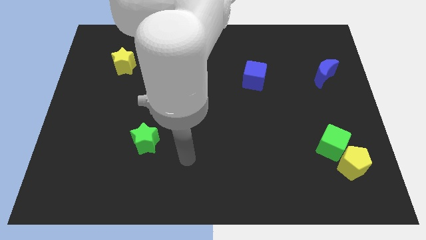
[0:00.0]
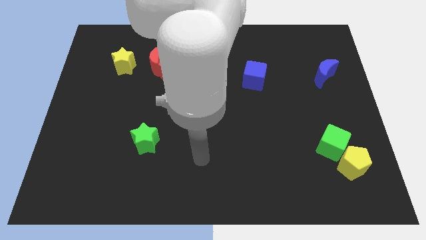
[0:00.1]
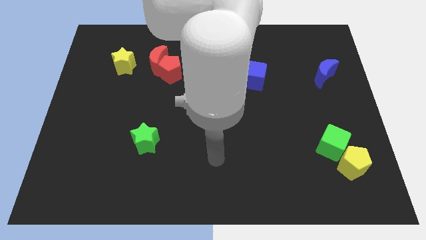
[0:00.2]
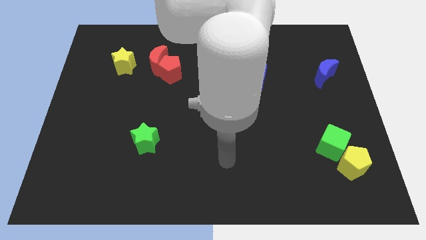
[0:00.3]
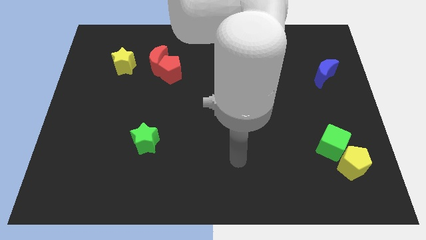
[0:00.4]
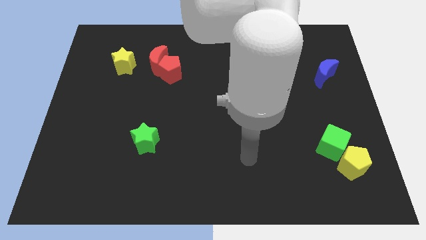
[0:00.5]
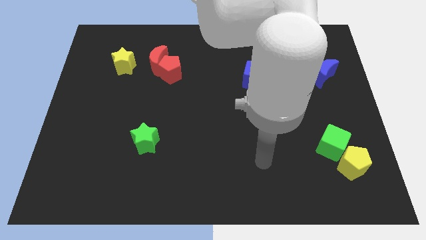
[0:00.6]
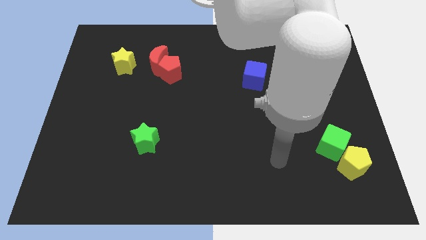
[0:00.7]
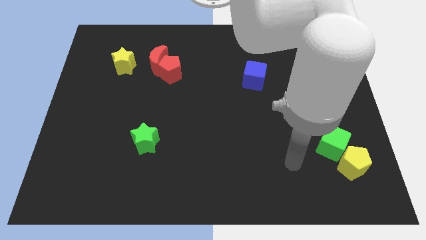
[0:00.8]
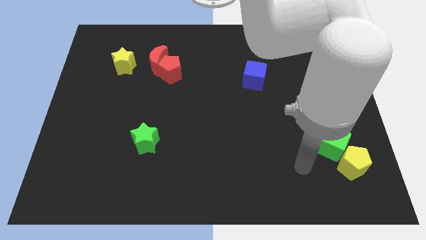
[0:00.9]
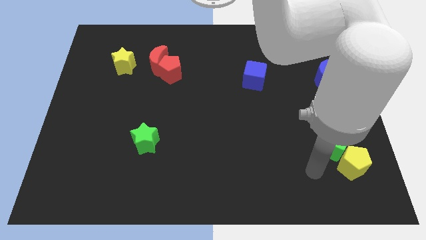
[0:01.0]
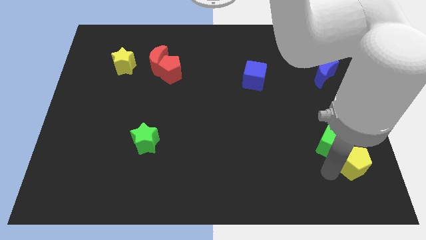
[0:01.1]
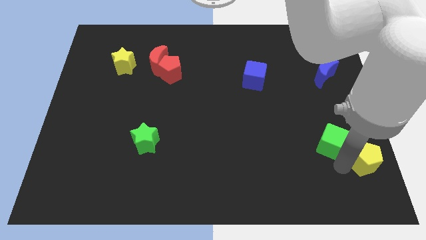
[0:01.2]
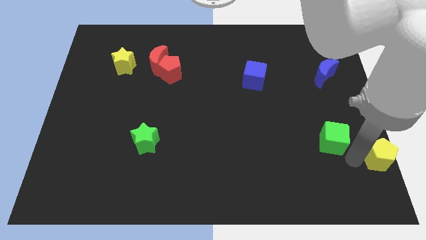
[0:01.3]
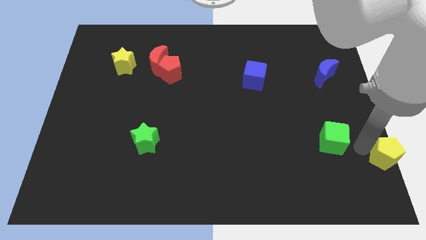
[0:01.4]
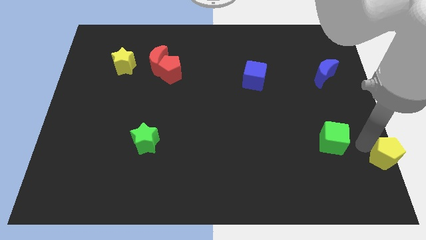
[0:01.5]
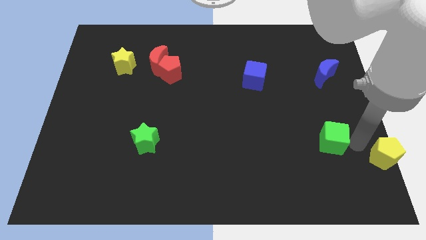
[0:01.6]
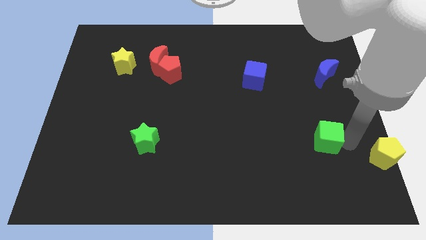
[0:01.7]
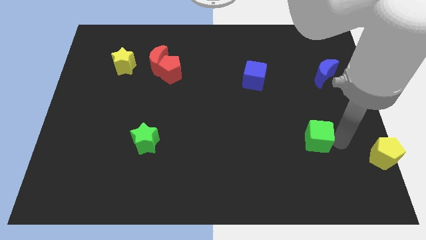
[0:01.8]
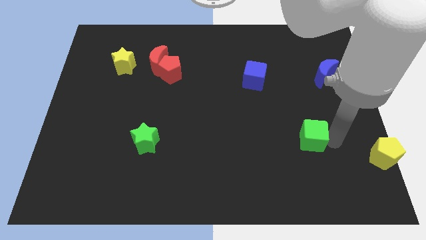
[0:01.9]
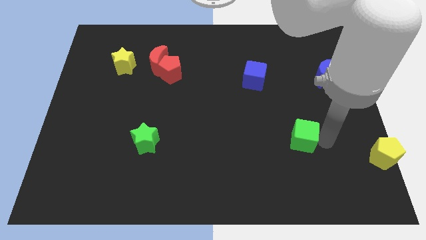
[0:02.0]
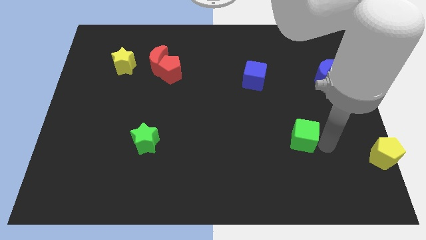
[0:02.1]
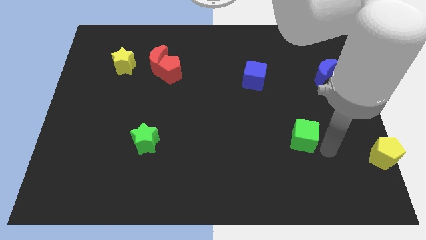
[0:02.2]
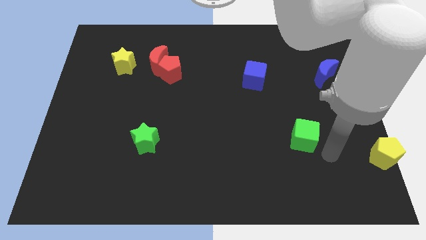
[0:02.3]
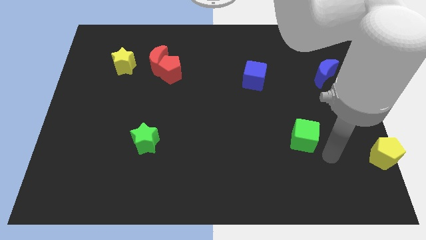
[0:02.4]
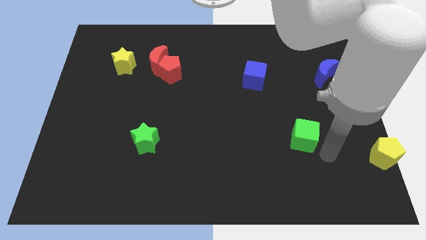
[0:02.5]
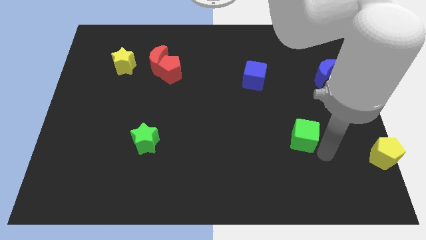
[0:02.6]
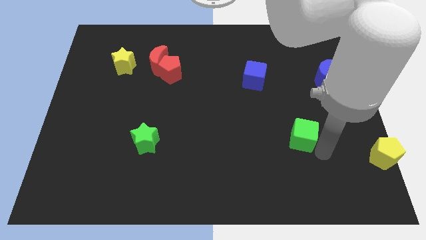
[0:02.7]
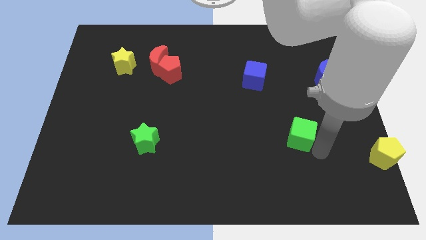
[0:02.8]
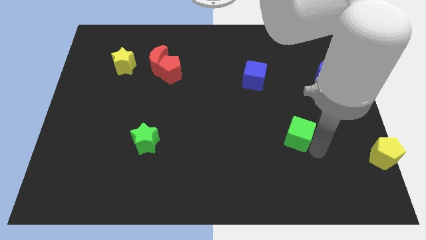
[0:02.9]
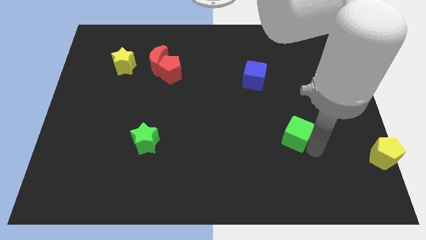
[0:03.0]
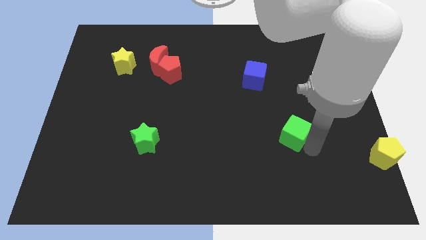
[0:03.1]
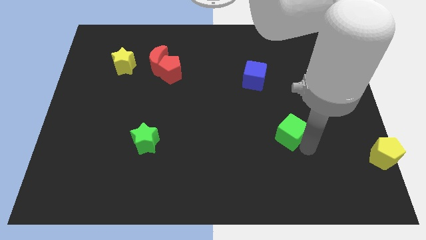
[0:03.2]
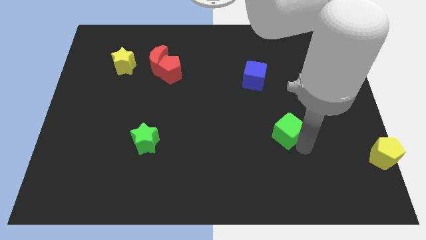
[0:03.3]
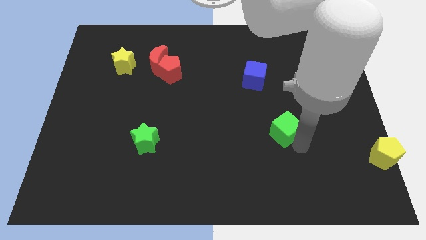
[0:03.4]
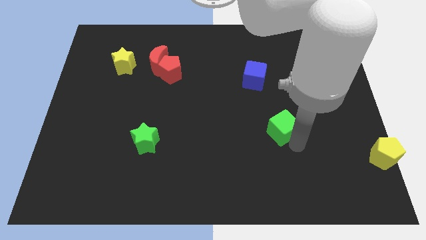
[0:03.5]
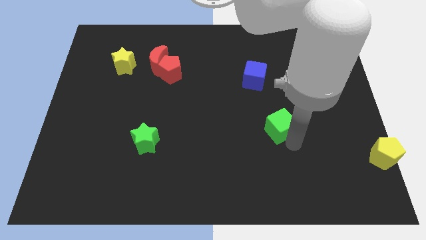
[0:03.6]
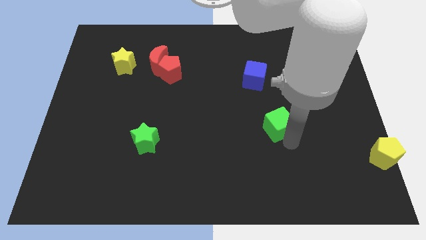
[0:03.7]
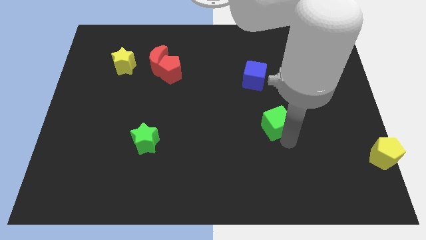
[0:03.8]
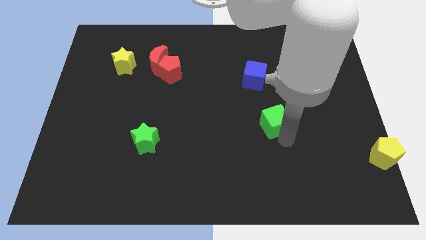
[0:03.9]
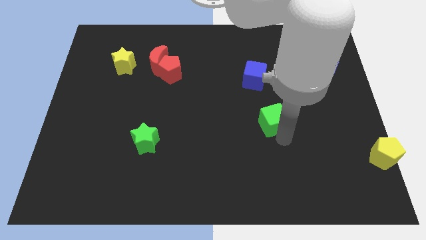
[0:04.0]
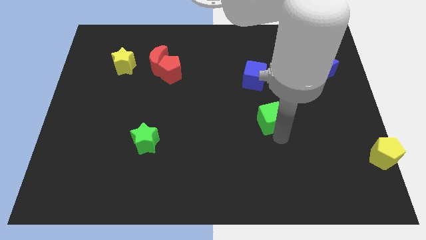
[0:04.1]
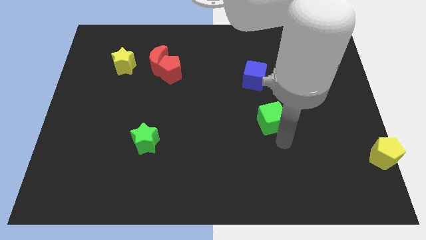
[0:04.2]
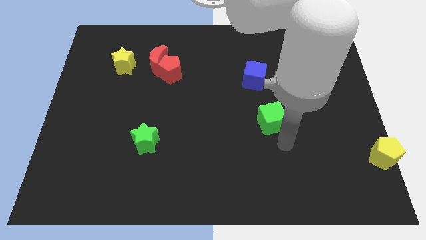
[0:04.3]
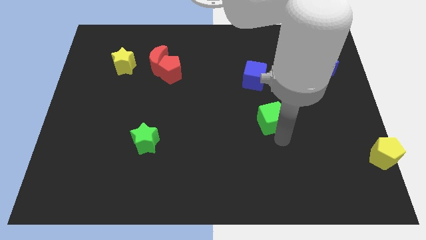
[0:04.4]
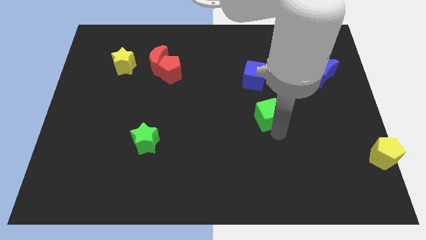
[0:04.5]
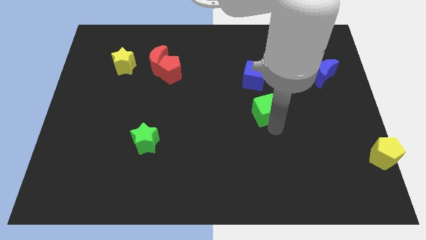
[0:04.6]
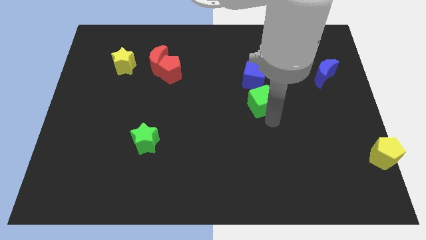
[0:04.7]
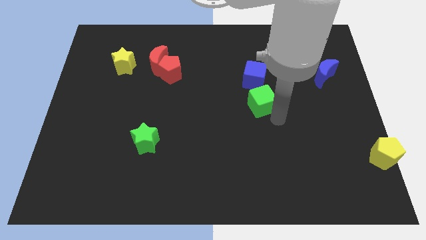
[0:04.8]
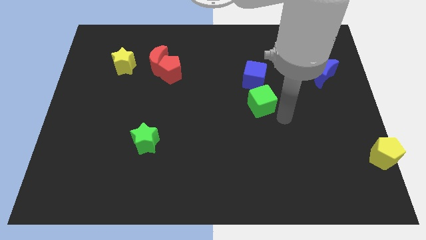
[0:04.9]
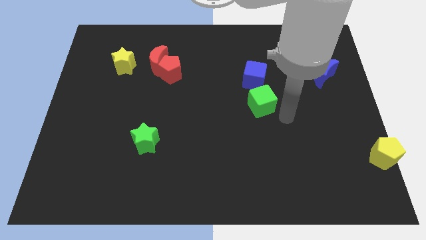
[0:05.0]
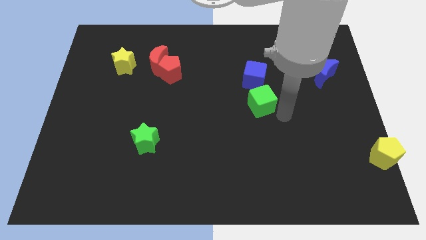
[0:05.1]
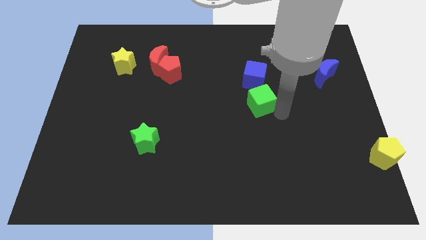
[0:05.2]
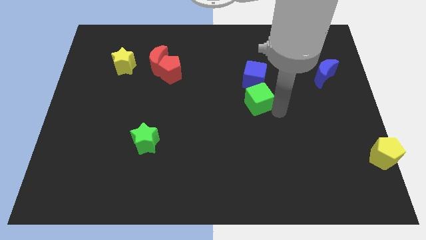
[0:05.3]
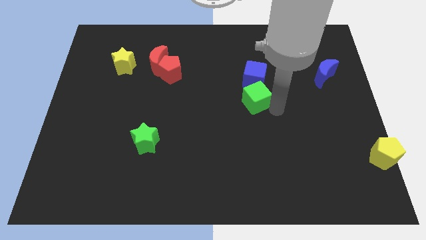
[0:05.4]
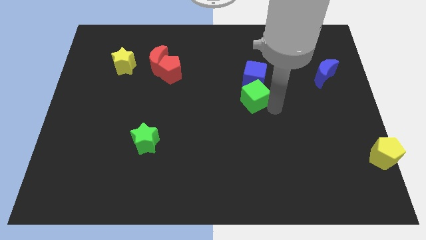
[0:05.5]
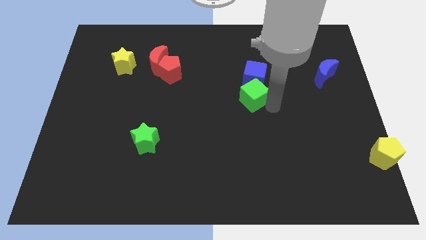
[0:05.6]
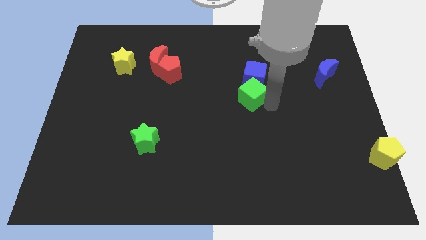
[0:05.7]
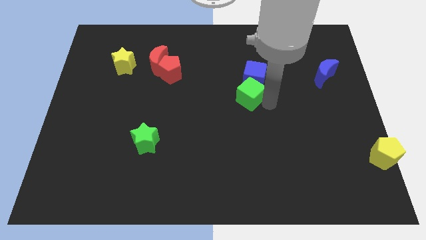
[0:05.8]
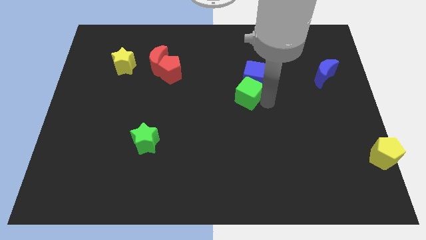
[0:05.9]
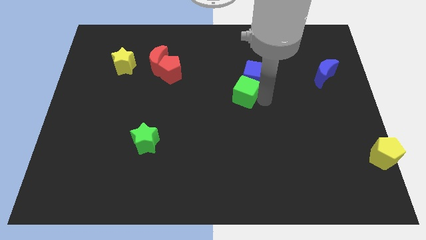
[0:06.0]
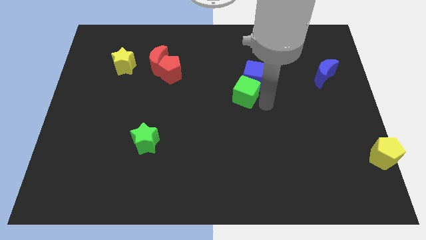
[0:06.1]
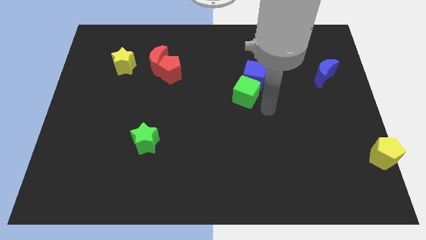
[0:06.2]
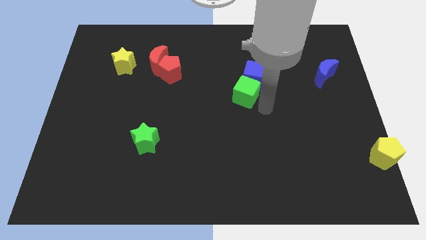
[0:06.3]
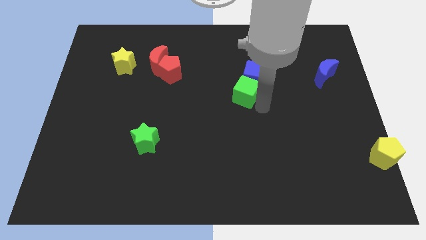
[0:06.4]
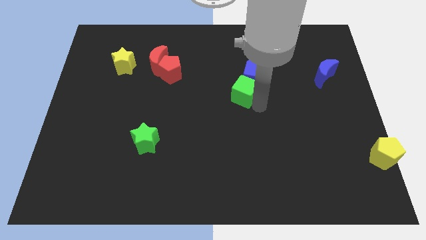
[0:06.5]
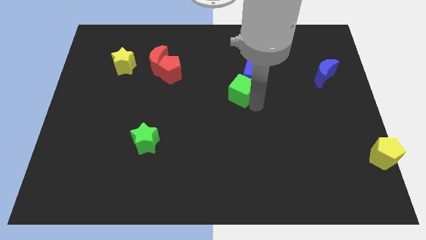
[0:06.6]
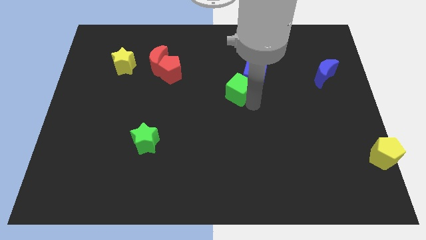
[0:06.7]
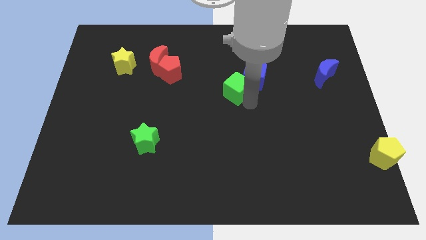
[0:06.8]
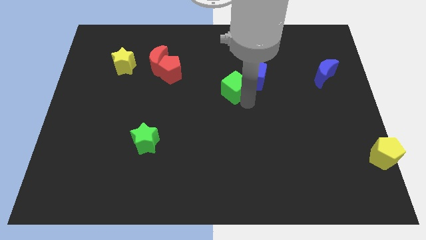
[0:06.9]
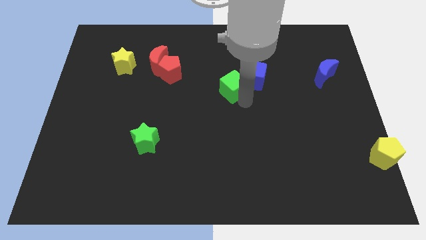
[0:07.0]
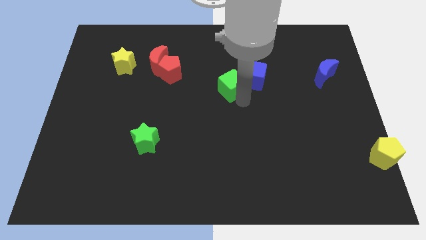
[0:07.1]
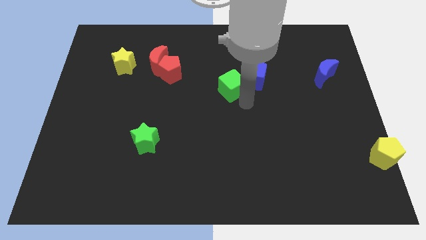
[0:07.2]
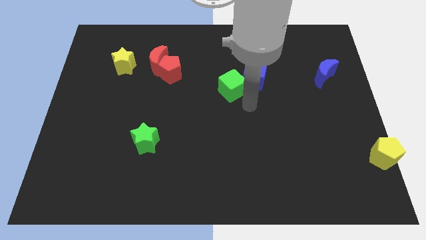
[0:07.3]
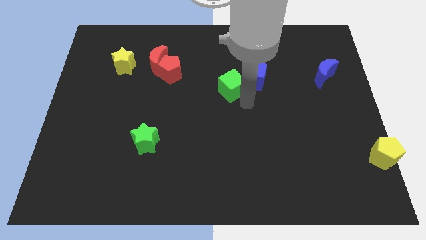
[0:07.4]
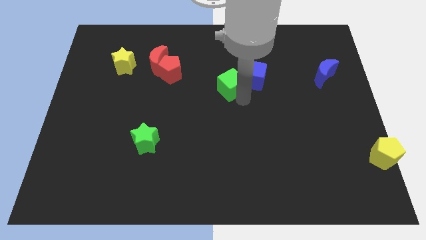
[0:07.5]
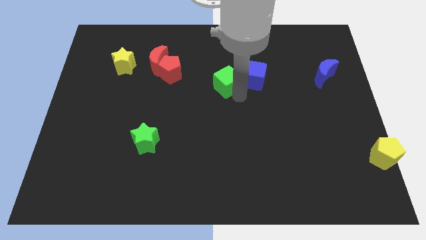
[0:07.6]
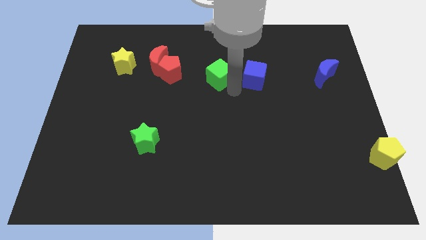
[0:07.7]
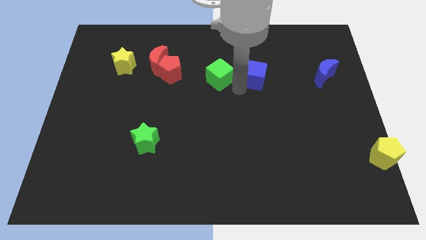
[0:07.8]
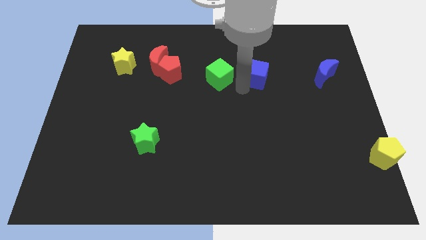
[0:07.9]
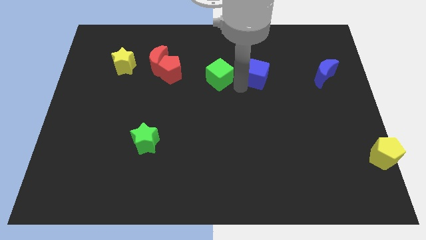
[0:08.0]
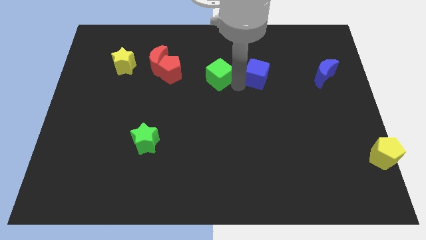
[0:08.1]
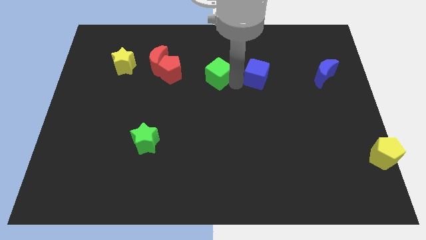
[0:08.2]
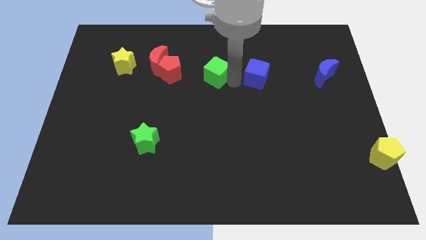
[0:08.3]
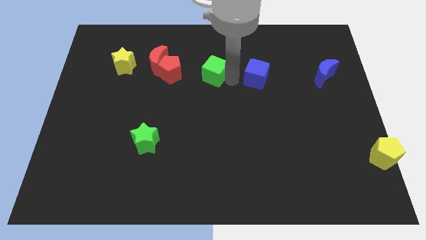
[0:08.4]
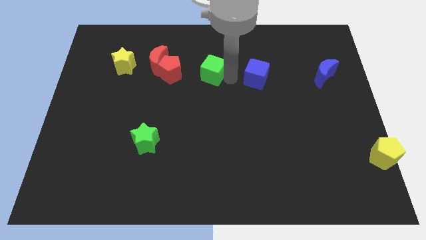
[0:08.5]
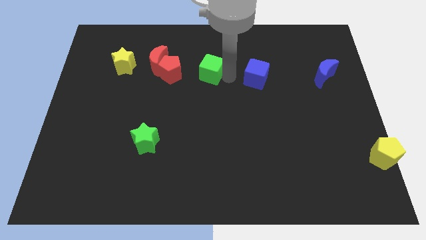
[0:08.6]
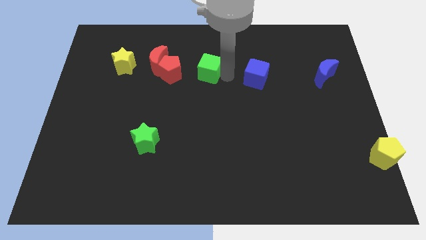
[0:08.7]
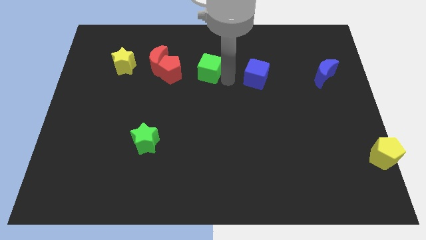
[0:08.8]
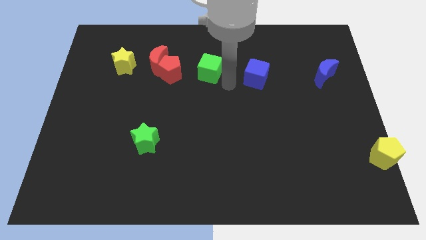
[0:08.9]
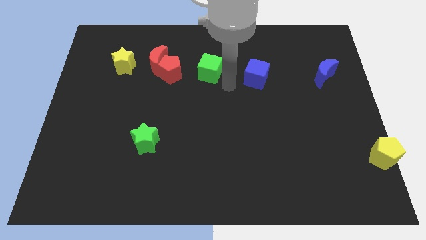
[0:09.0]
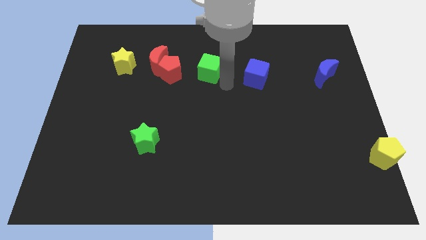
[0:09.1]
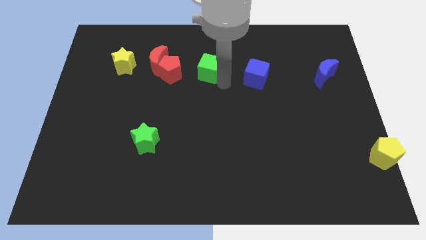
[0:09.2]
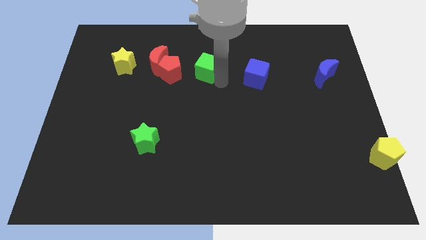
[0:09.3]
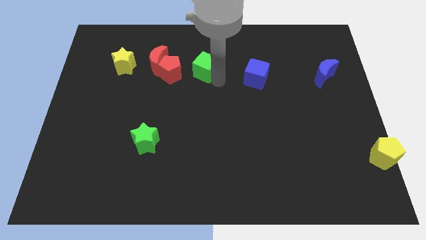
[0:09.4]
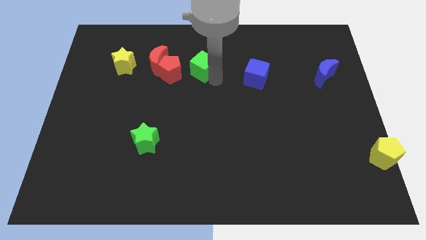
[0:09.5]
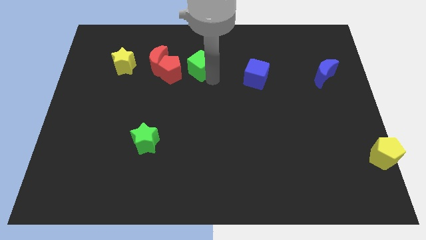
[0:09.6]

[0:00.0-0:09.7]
push the green cube to the top right side of the red pentagon
